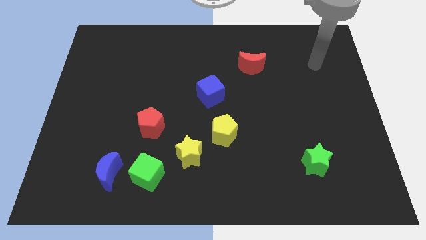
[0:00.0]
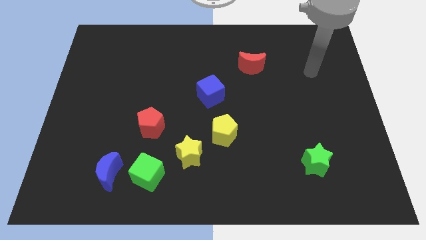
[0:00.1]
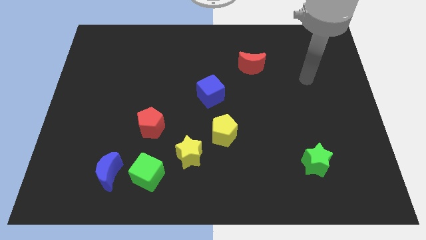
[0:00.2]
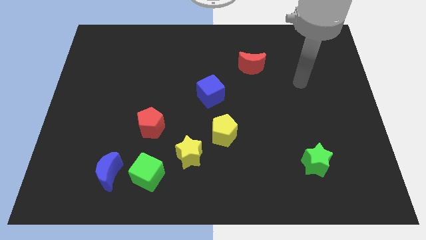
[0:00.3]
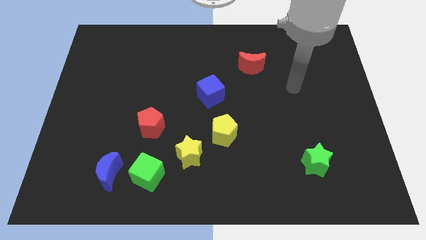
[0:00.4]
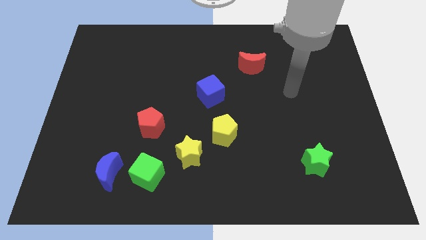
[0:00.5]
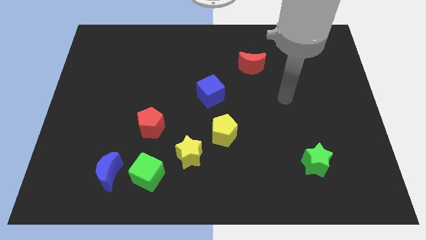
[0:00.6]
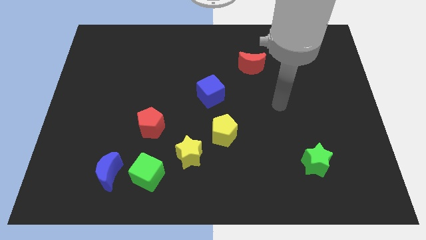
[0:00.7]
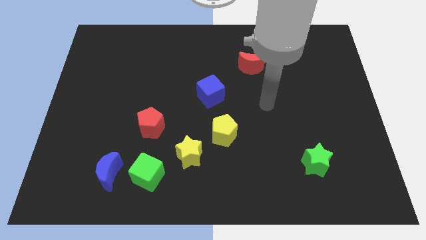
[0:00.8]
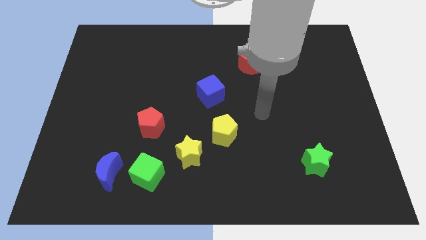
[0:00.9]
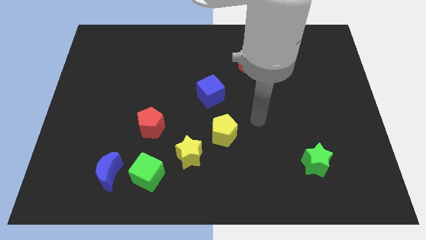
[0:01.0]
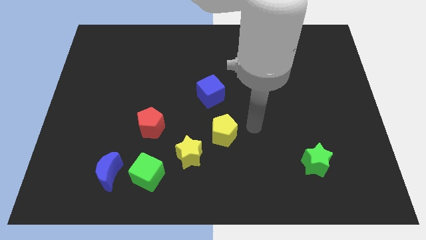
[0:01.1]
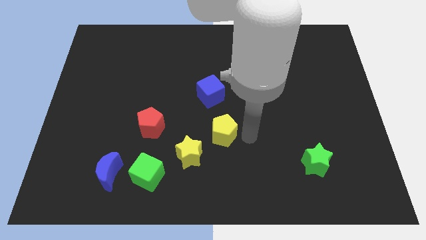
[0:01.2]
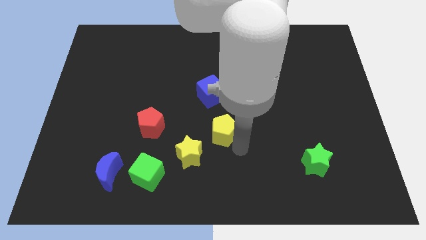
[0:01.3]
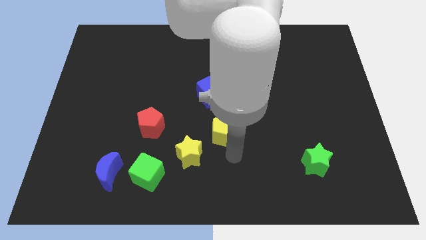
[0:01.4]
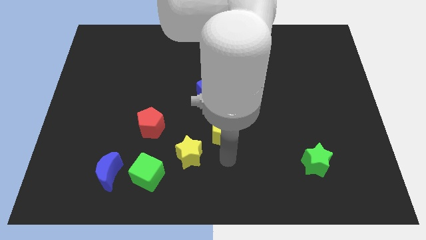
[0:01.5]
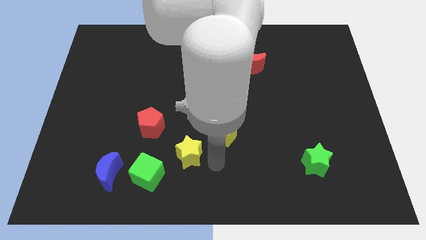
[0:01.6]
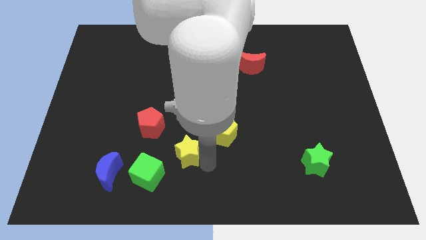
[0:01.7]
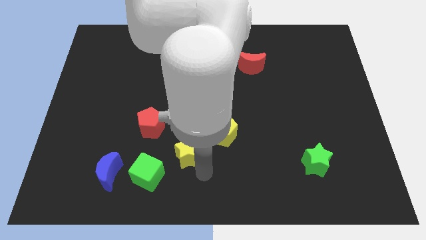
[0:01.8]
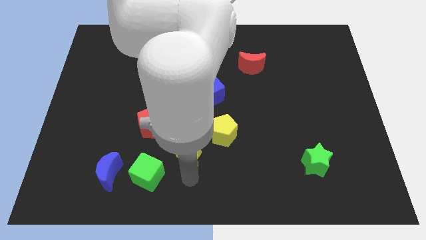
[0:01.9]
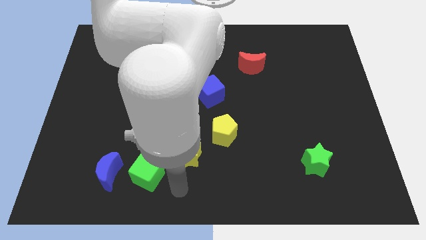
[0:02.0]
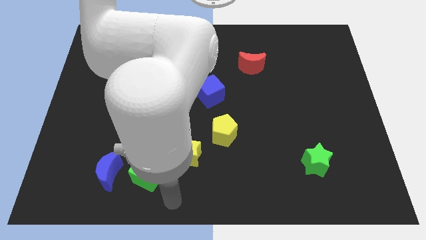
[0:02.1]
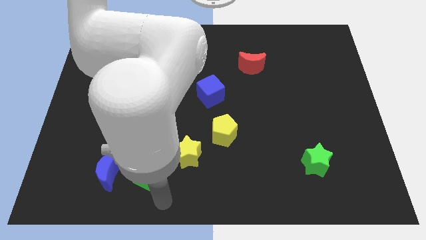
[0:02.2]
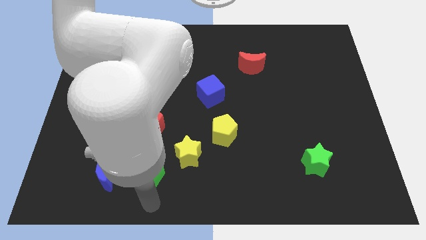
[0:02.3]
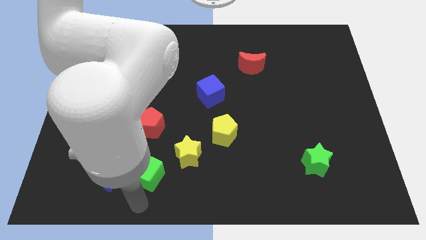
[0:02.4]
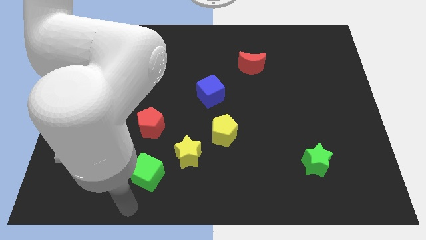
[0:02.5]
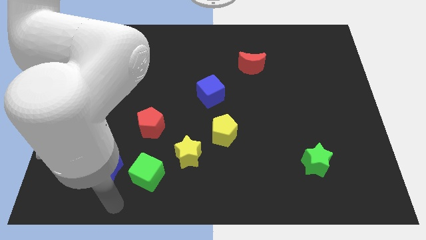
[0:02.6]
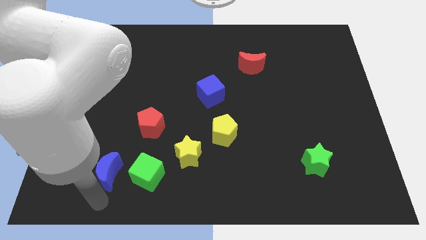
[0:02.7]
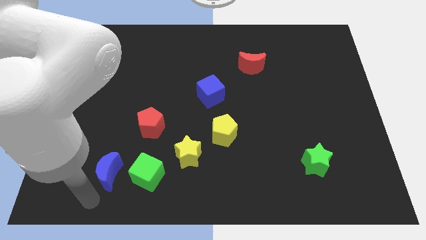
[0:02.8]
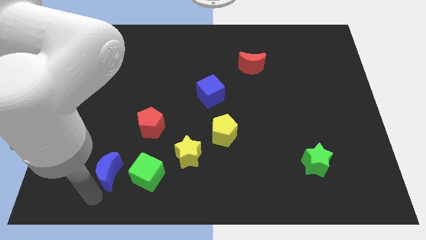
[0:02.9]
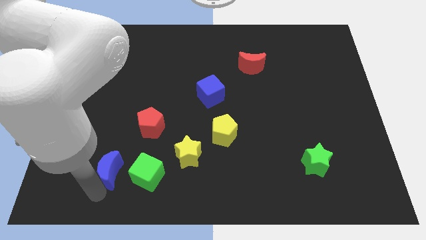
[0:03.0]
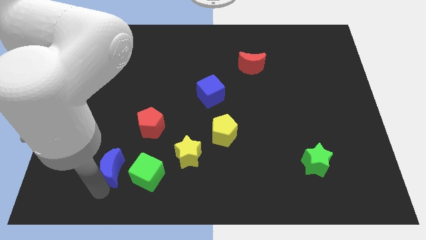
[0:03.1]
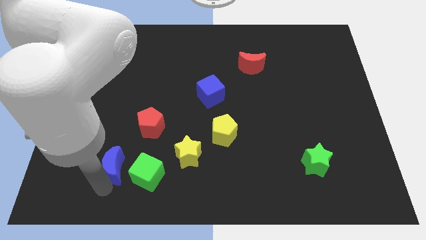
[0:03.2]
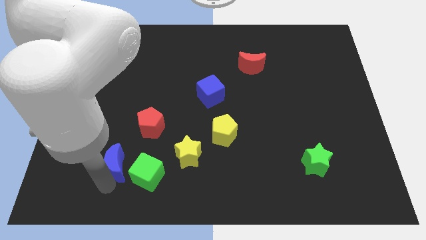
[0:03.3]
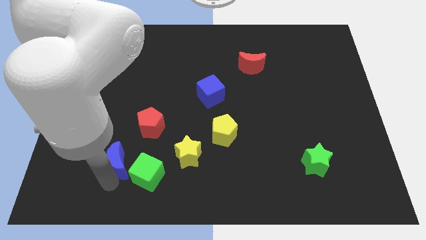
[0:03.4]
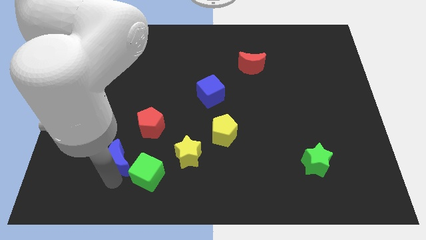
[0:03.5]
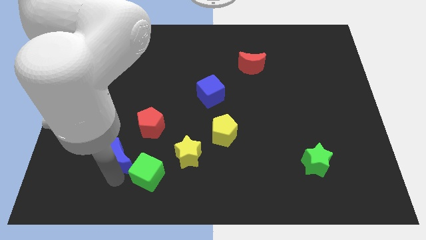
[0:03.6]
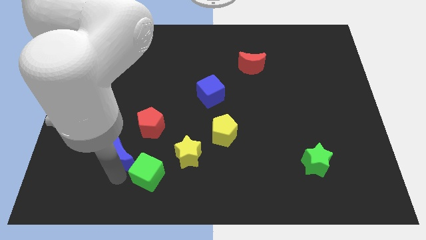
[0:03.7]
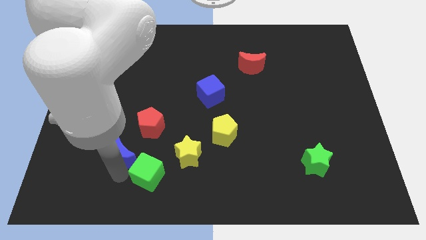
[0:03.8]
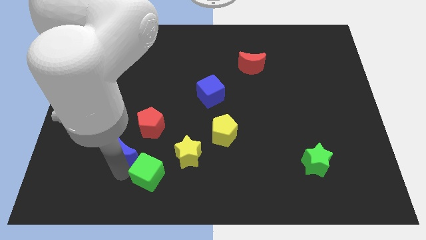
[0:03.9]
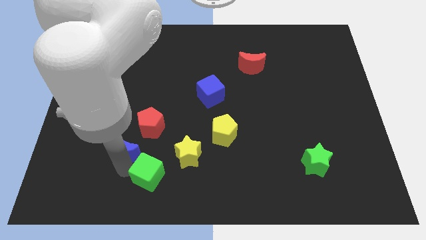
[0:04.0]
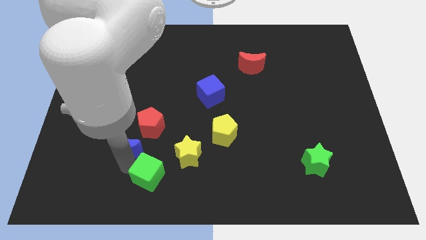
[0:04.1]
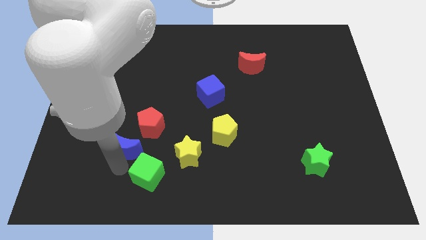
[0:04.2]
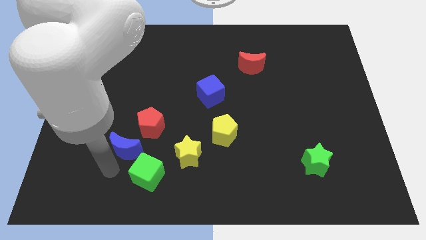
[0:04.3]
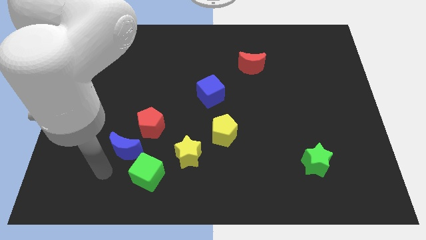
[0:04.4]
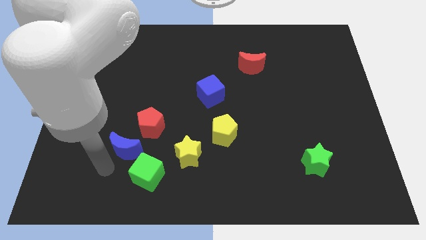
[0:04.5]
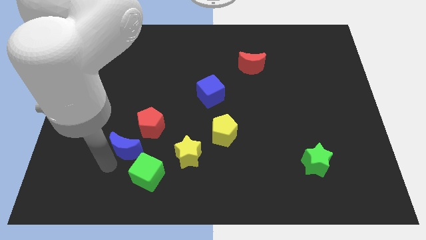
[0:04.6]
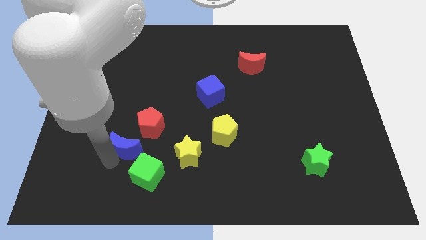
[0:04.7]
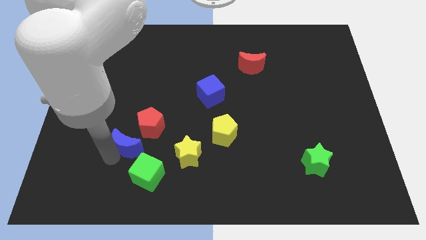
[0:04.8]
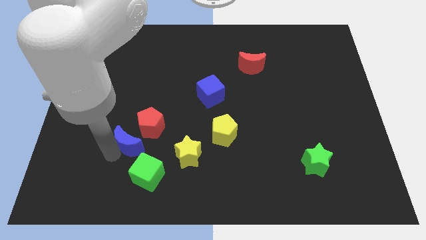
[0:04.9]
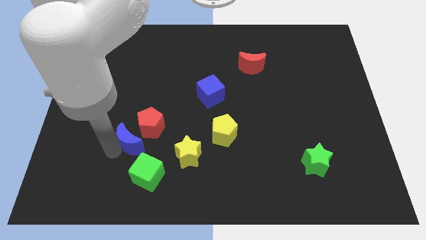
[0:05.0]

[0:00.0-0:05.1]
push the blue moon towards the red pentagon

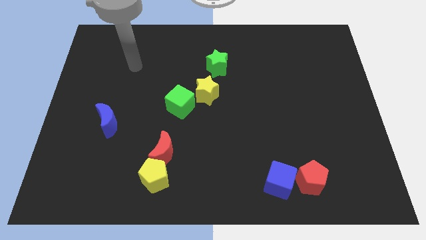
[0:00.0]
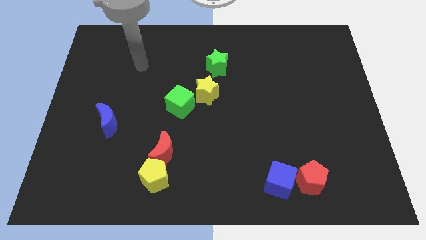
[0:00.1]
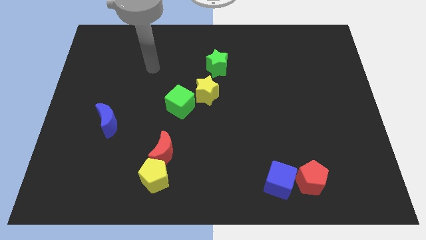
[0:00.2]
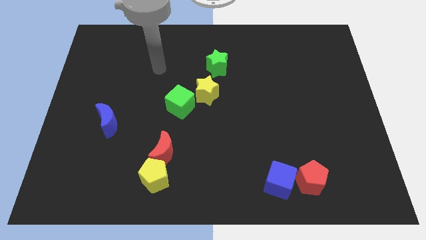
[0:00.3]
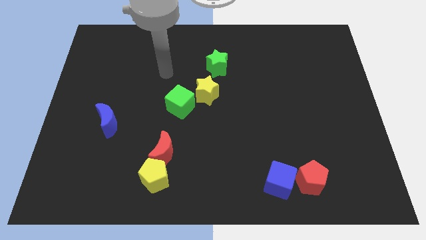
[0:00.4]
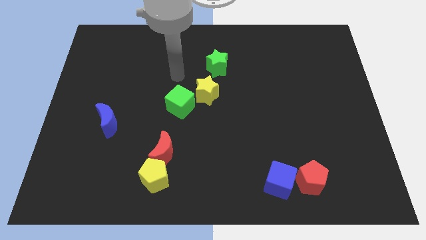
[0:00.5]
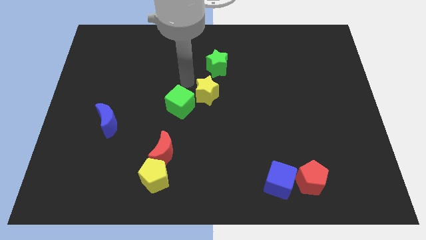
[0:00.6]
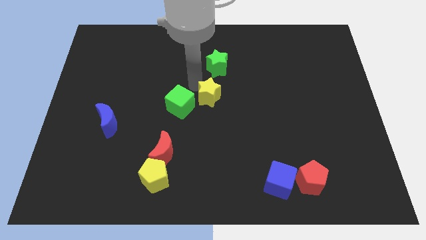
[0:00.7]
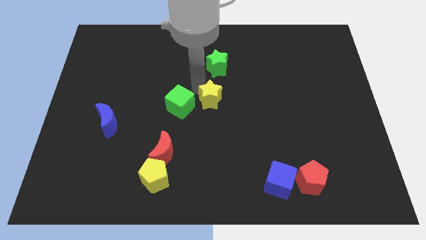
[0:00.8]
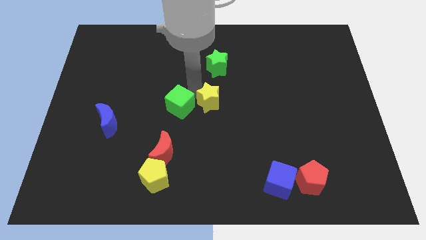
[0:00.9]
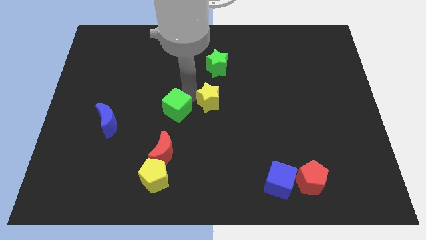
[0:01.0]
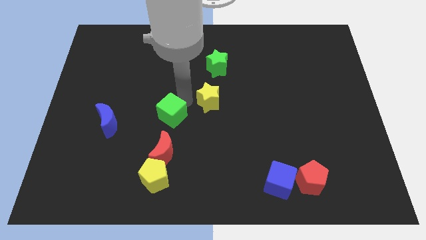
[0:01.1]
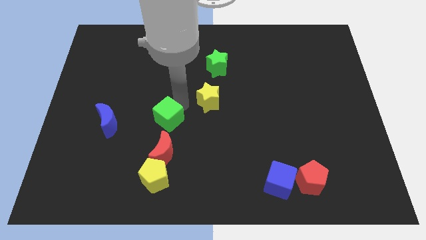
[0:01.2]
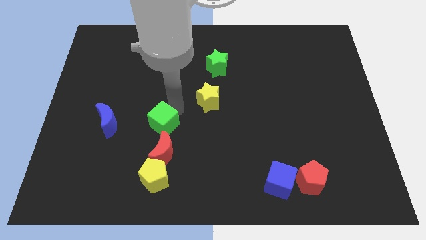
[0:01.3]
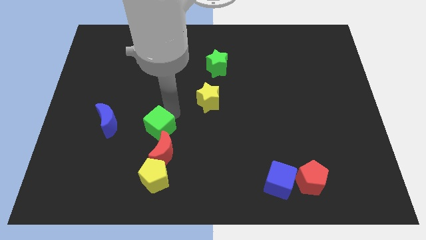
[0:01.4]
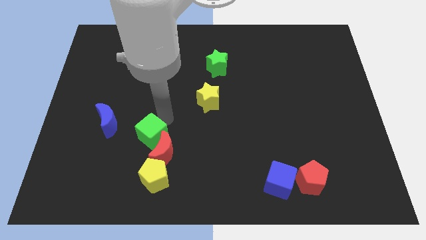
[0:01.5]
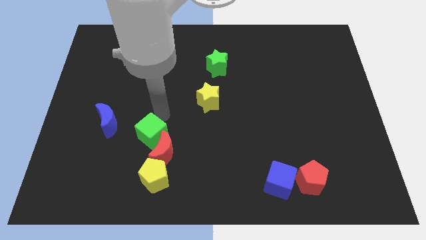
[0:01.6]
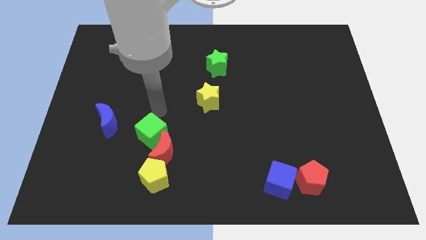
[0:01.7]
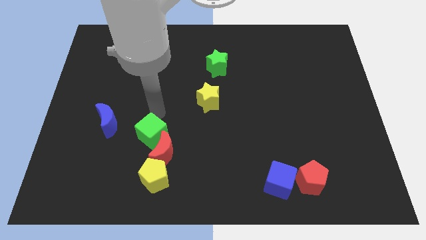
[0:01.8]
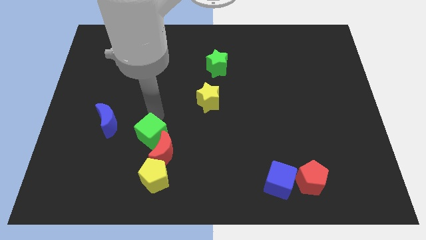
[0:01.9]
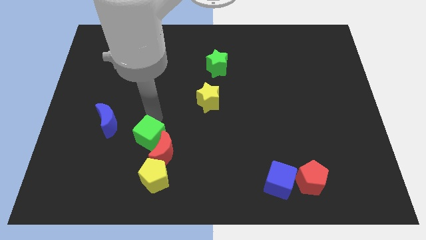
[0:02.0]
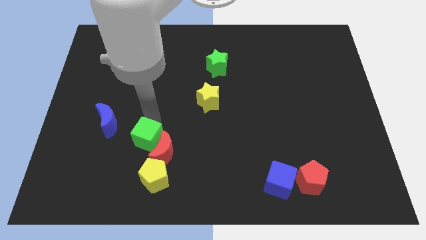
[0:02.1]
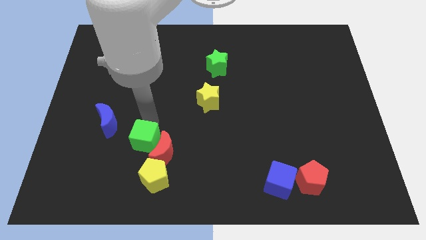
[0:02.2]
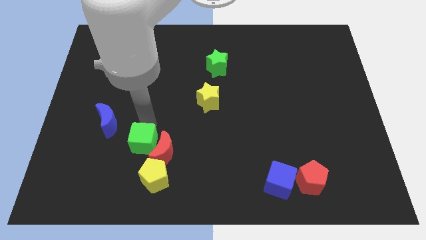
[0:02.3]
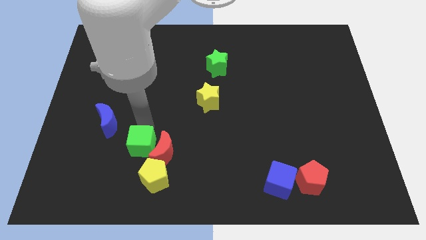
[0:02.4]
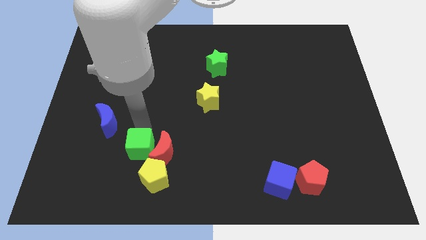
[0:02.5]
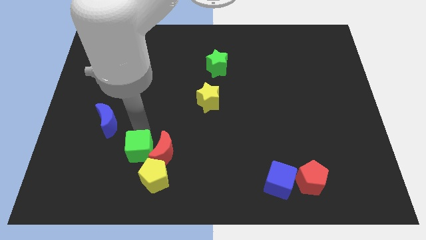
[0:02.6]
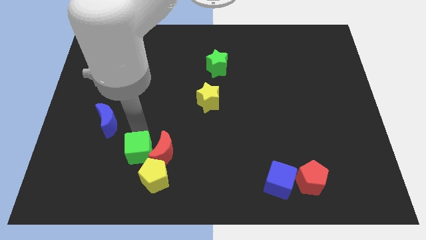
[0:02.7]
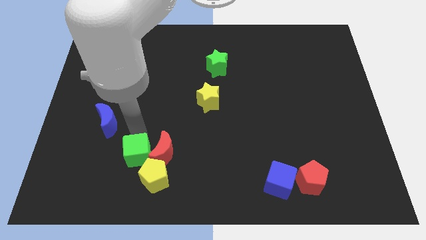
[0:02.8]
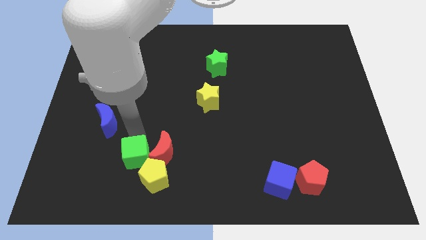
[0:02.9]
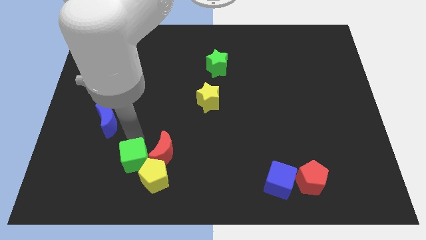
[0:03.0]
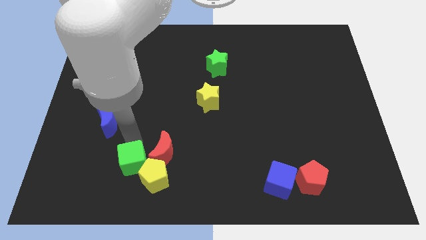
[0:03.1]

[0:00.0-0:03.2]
move the green cube close to the yellow pentagon
